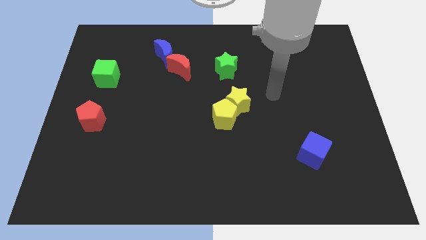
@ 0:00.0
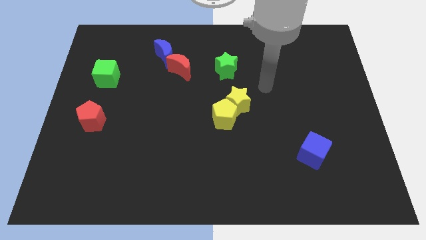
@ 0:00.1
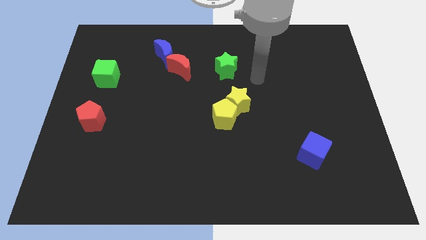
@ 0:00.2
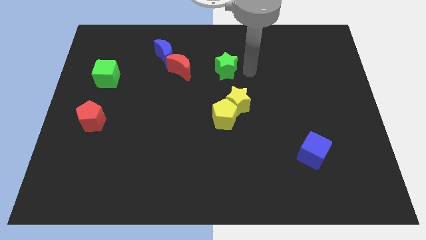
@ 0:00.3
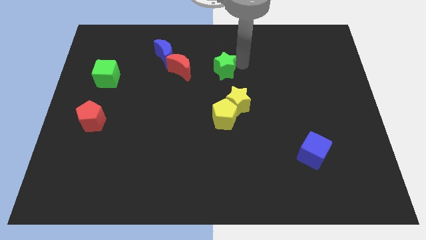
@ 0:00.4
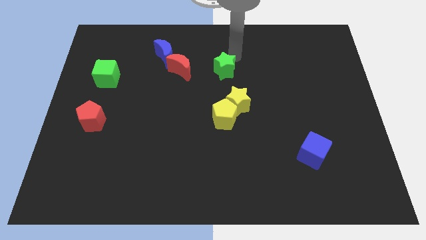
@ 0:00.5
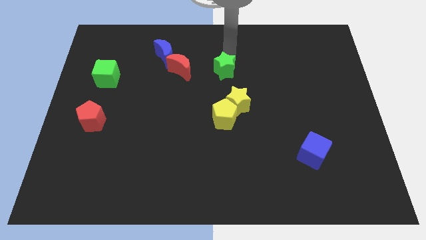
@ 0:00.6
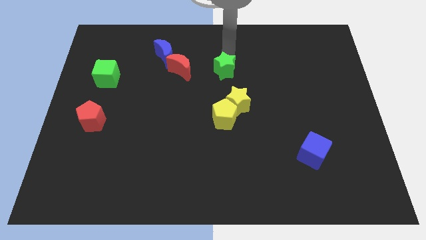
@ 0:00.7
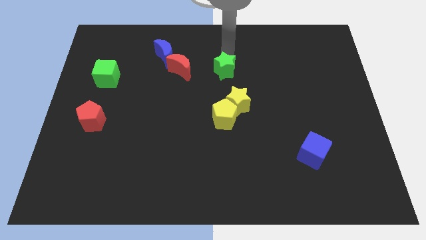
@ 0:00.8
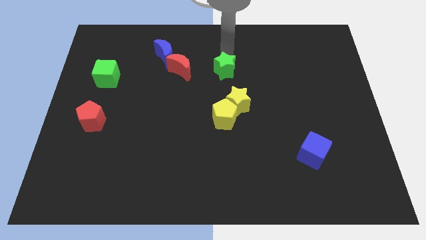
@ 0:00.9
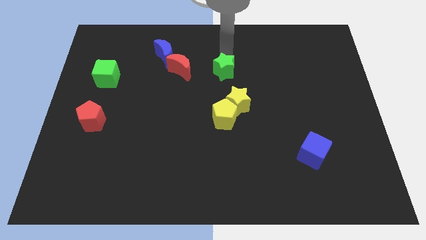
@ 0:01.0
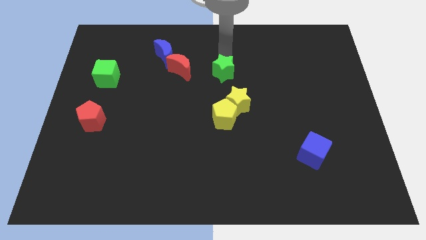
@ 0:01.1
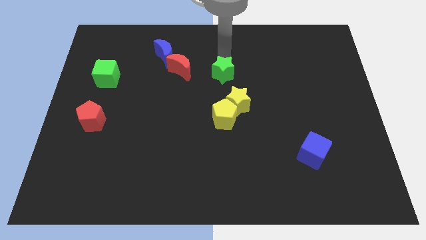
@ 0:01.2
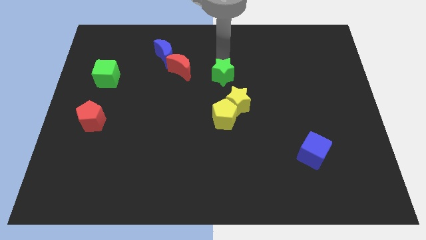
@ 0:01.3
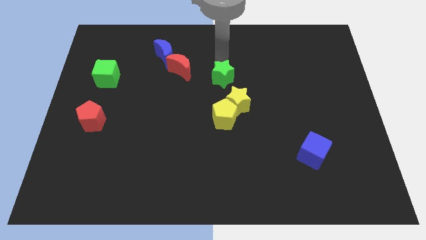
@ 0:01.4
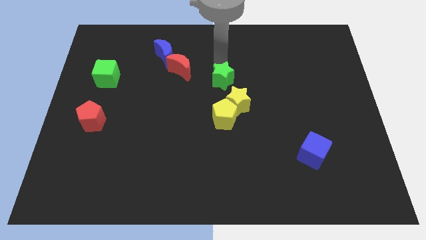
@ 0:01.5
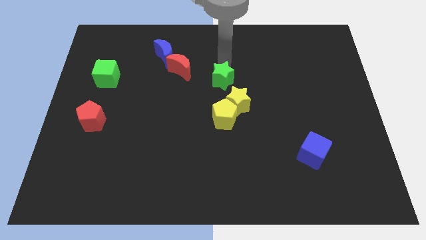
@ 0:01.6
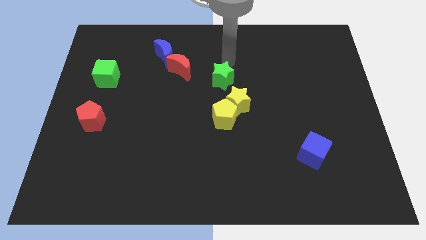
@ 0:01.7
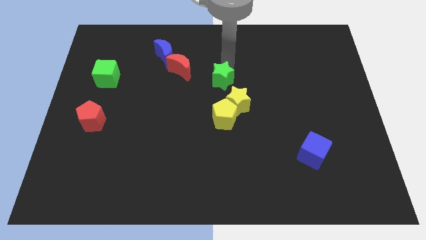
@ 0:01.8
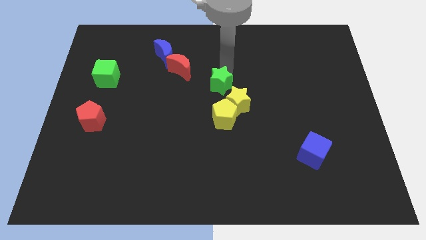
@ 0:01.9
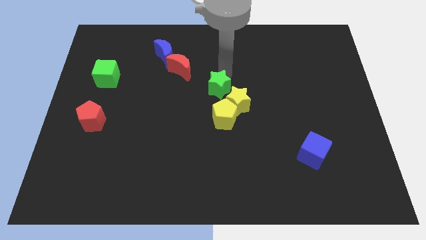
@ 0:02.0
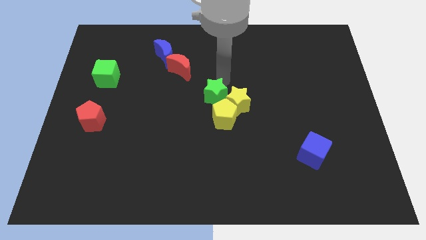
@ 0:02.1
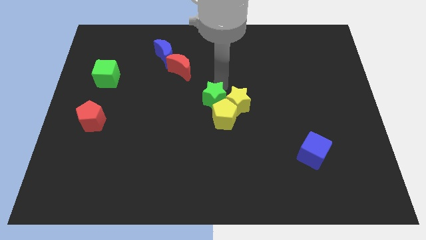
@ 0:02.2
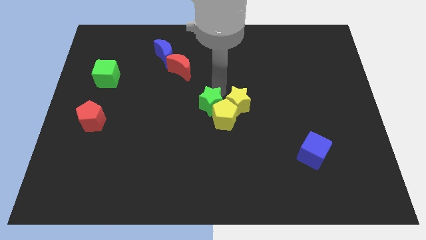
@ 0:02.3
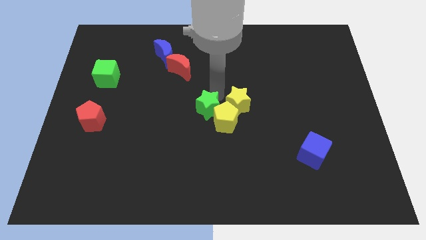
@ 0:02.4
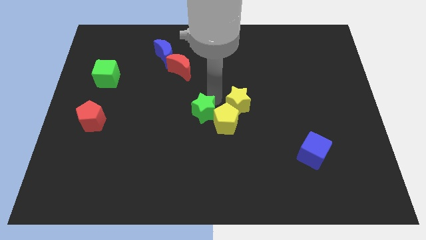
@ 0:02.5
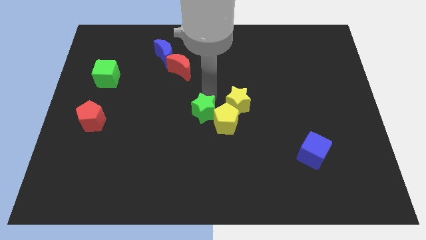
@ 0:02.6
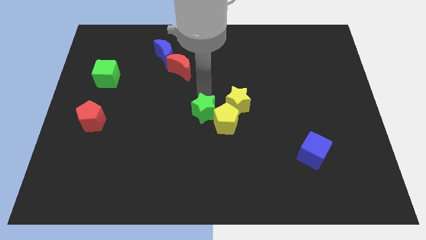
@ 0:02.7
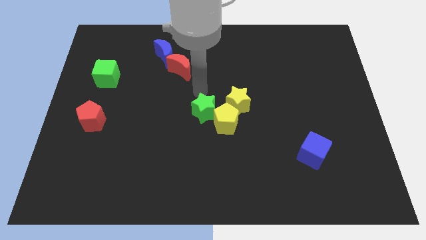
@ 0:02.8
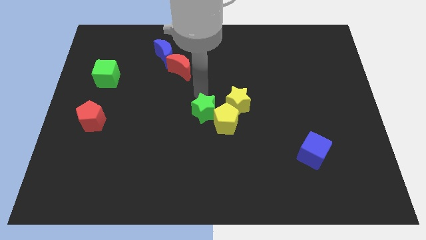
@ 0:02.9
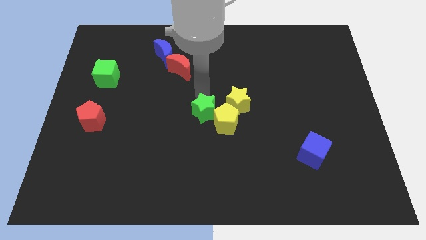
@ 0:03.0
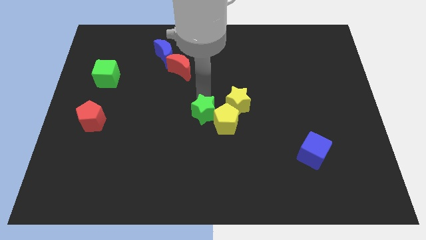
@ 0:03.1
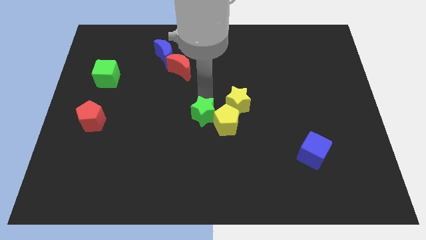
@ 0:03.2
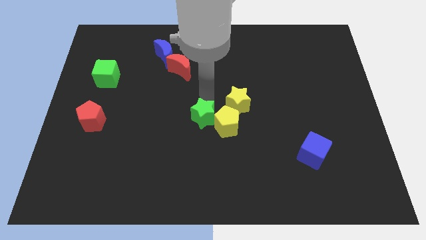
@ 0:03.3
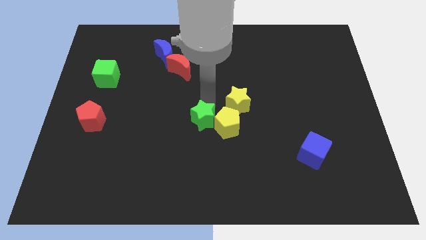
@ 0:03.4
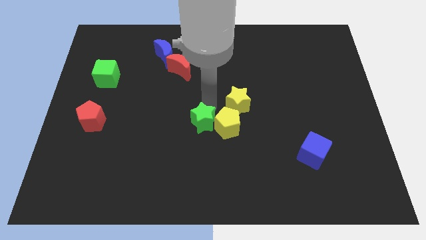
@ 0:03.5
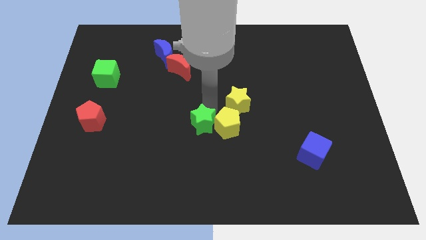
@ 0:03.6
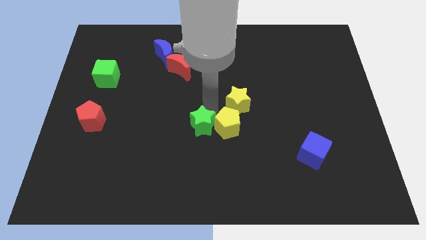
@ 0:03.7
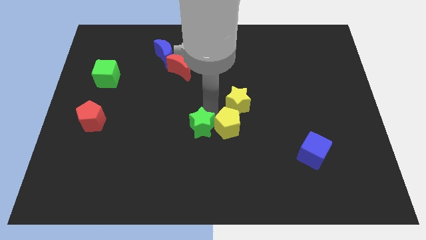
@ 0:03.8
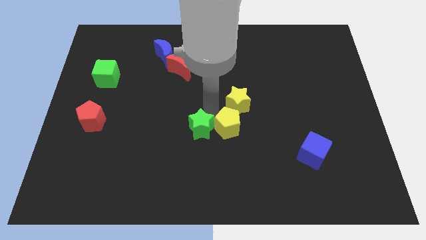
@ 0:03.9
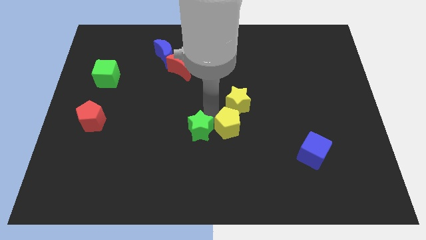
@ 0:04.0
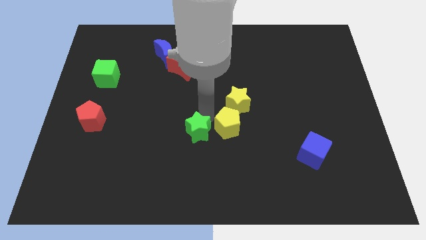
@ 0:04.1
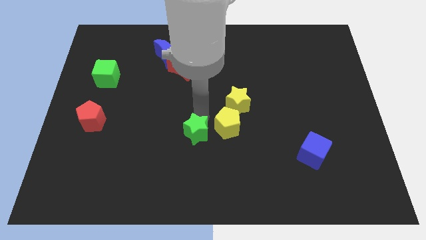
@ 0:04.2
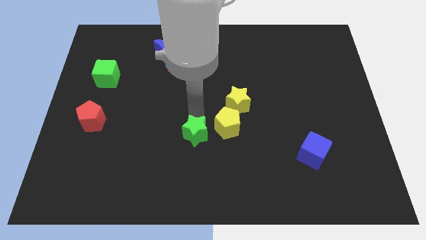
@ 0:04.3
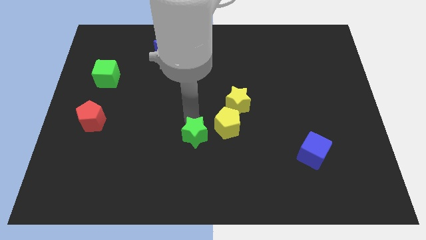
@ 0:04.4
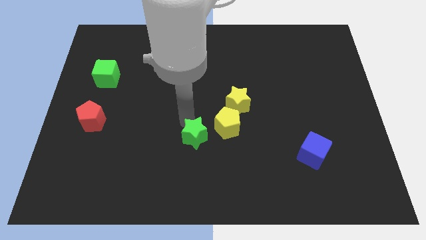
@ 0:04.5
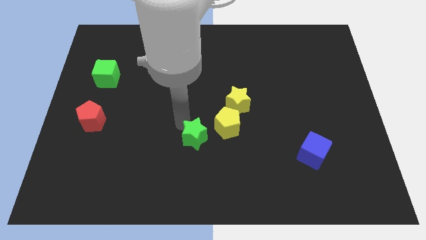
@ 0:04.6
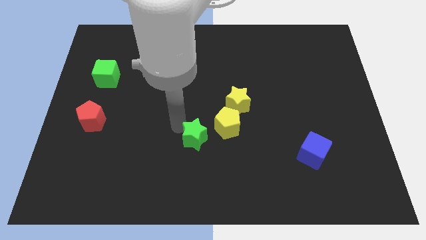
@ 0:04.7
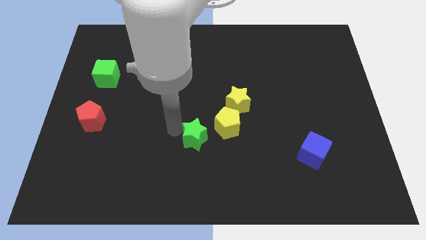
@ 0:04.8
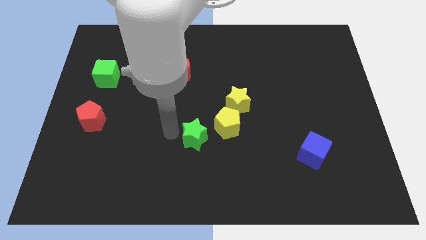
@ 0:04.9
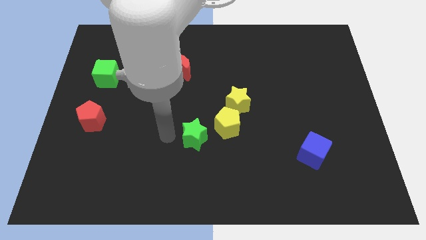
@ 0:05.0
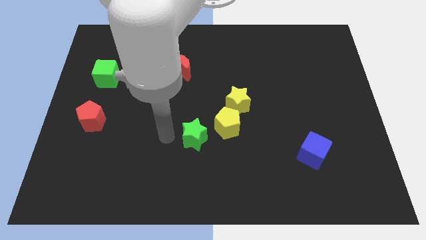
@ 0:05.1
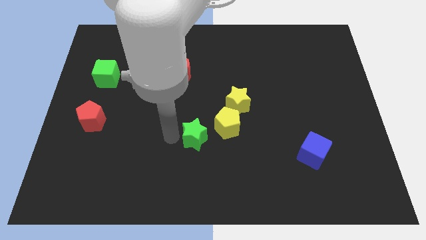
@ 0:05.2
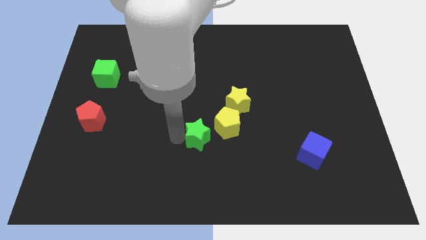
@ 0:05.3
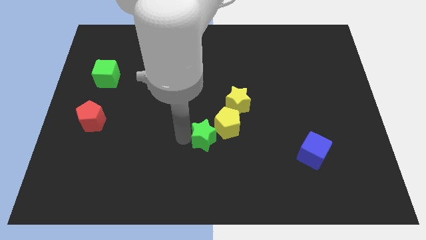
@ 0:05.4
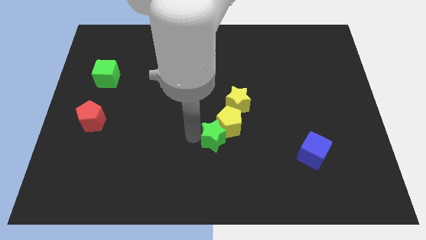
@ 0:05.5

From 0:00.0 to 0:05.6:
push the green star below the yellow pentagon

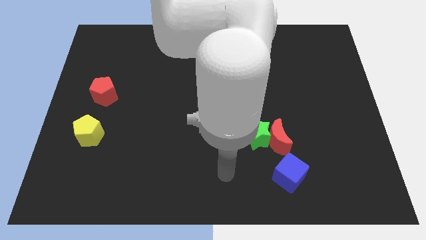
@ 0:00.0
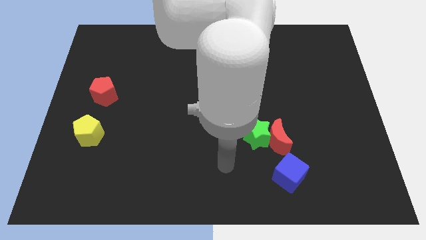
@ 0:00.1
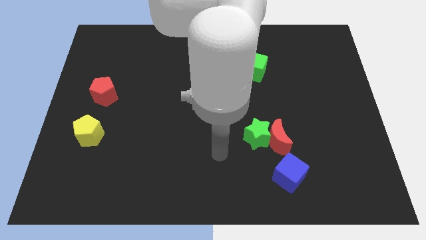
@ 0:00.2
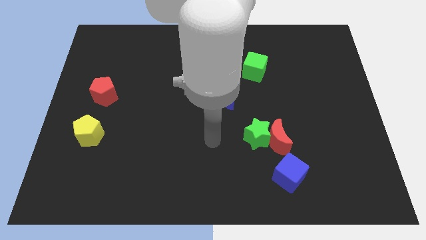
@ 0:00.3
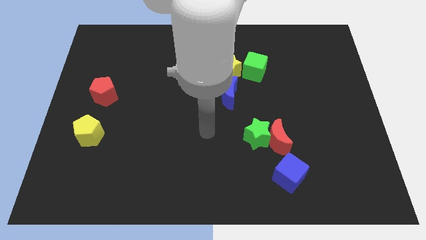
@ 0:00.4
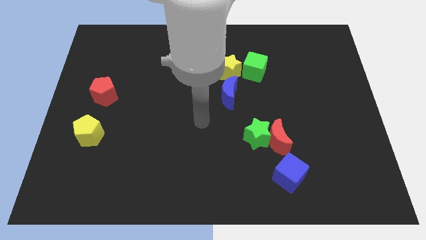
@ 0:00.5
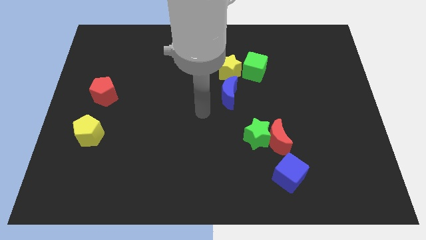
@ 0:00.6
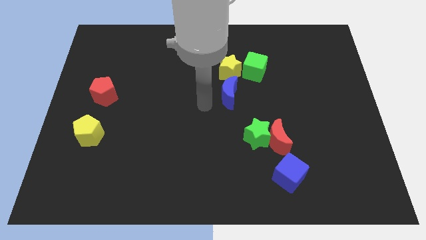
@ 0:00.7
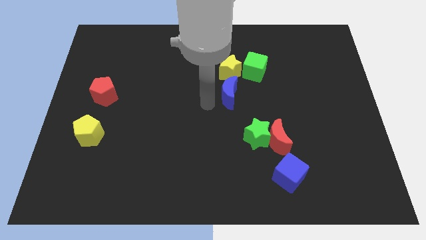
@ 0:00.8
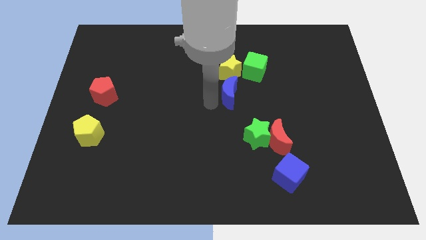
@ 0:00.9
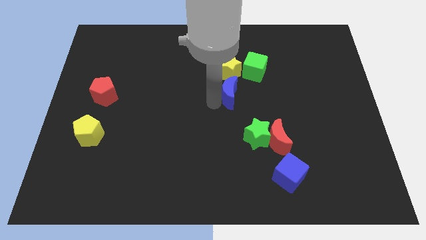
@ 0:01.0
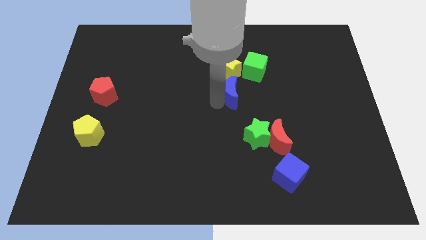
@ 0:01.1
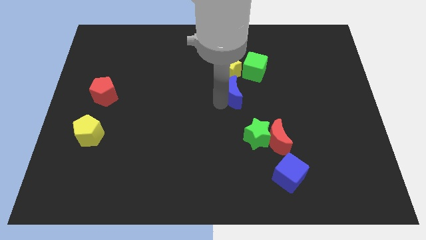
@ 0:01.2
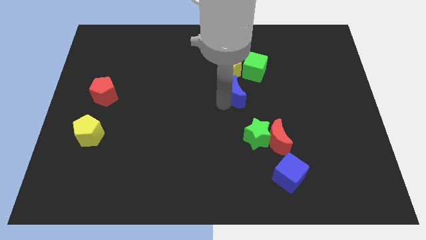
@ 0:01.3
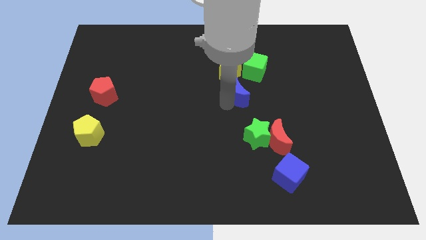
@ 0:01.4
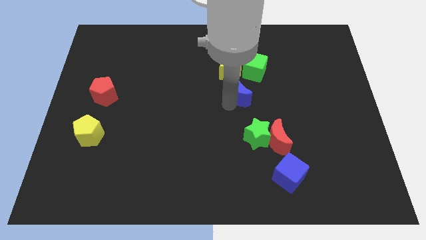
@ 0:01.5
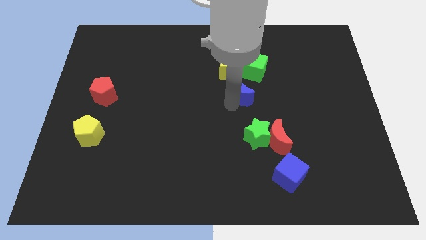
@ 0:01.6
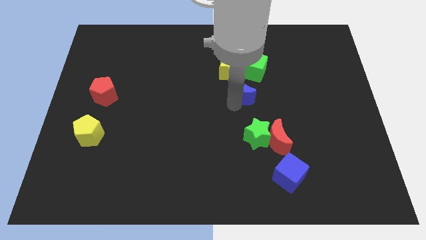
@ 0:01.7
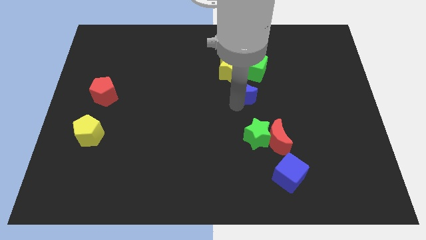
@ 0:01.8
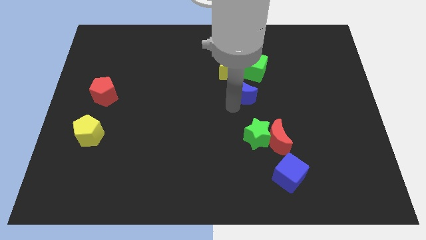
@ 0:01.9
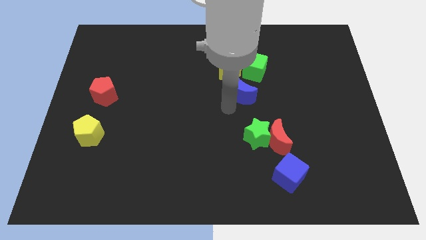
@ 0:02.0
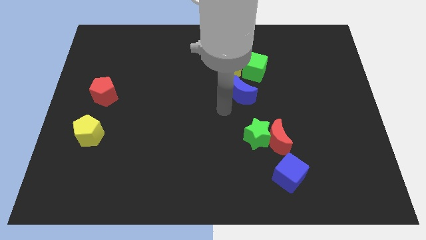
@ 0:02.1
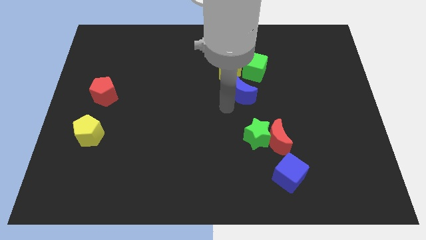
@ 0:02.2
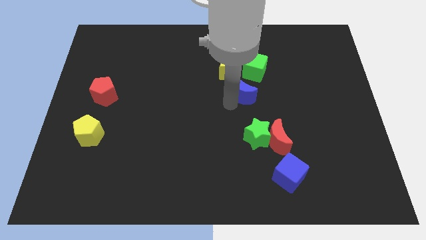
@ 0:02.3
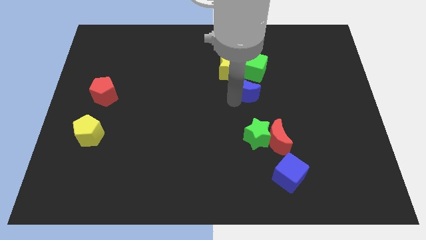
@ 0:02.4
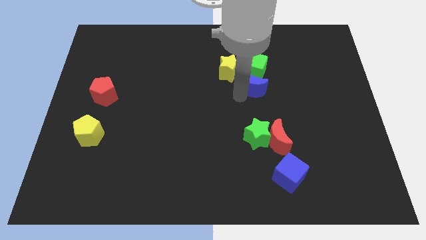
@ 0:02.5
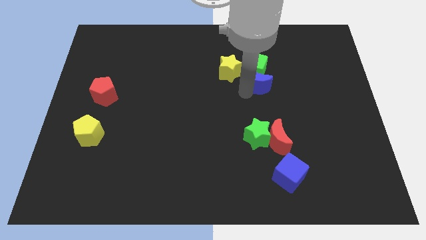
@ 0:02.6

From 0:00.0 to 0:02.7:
move the blue moon right of the yellow star
